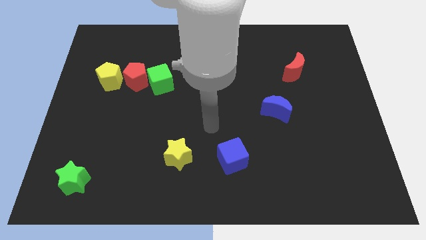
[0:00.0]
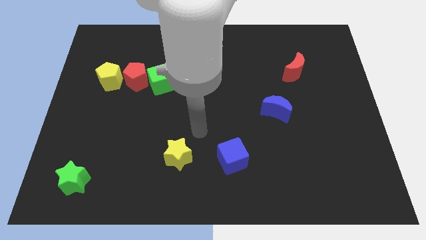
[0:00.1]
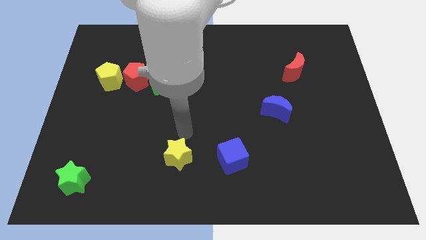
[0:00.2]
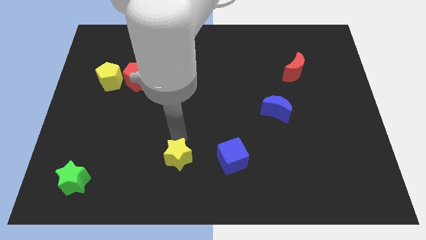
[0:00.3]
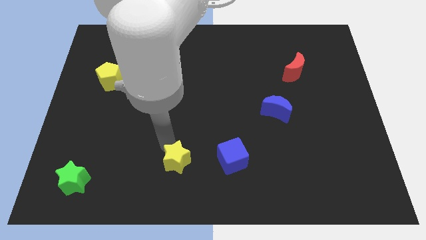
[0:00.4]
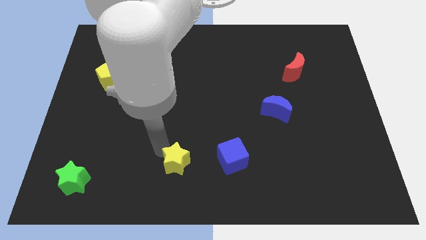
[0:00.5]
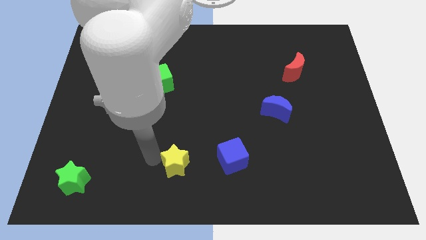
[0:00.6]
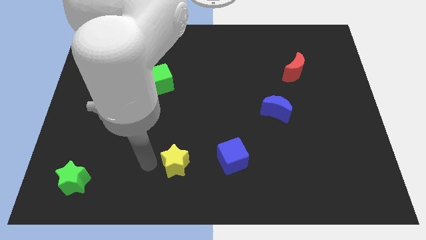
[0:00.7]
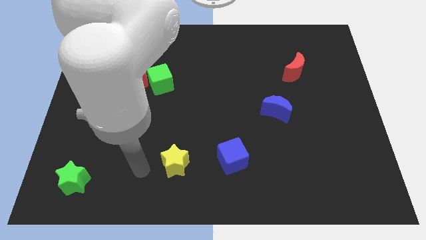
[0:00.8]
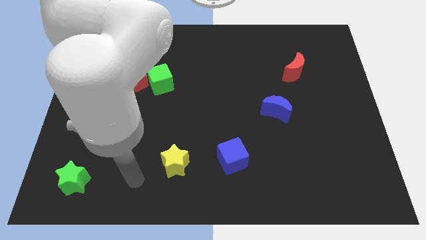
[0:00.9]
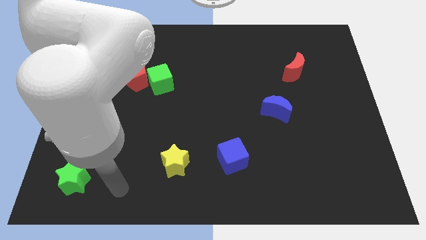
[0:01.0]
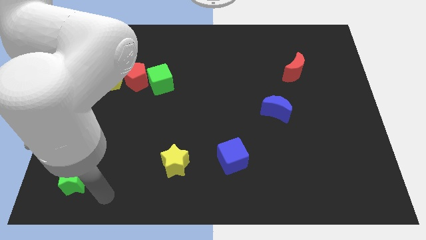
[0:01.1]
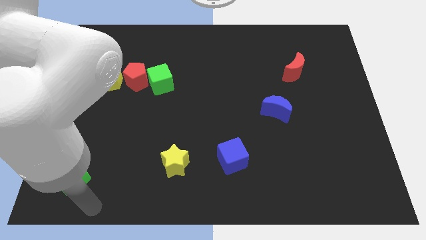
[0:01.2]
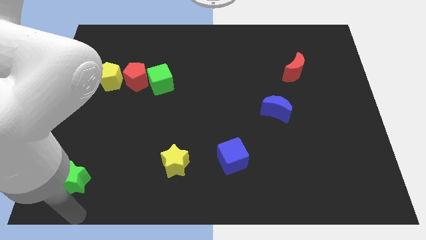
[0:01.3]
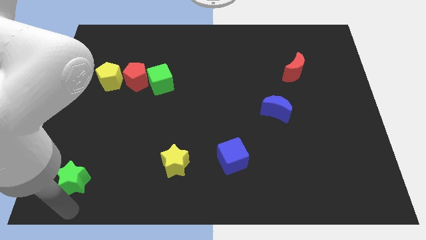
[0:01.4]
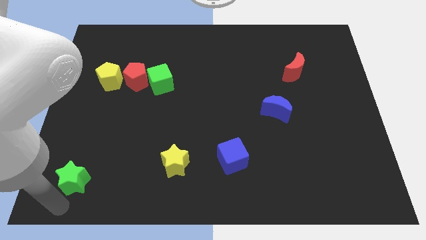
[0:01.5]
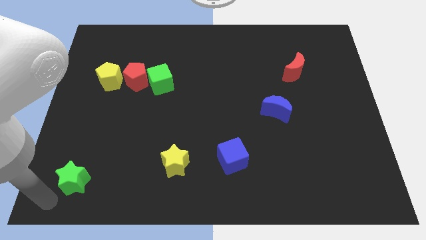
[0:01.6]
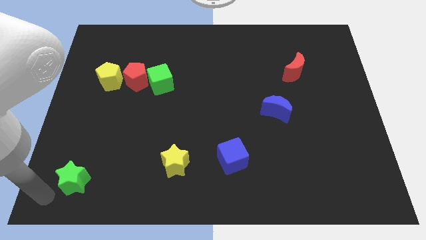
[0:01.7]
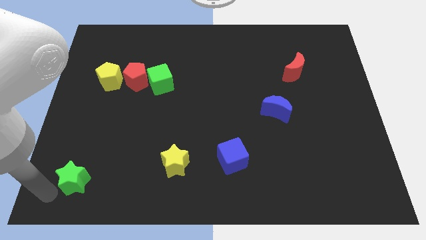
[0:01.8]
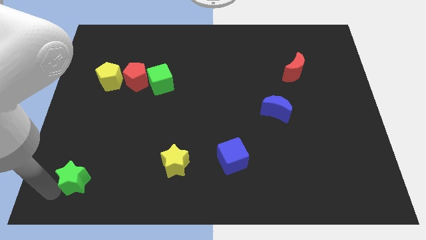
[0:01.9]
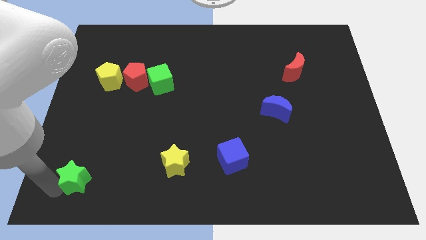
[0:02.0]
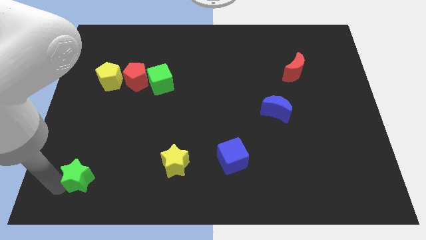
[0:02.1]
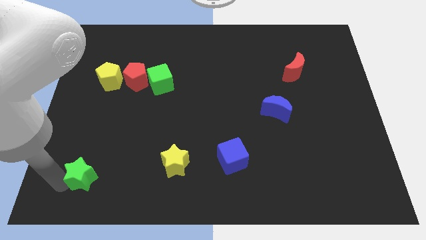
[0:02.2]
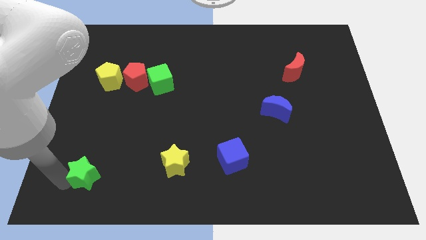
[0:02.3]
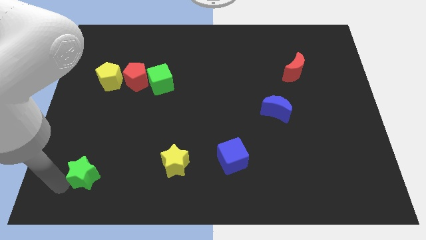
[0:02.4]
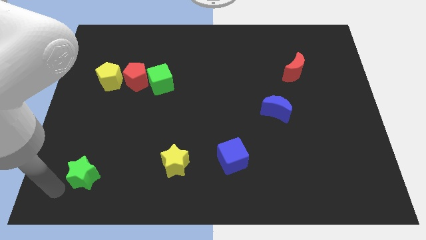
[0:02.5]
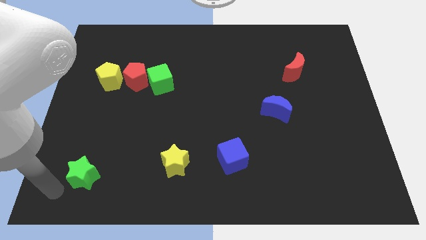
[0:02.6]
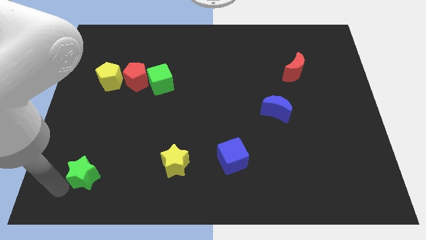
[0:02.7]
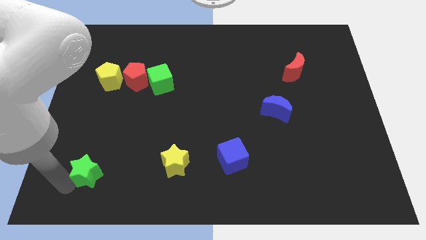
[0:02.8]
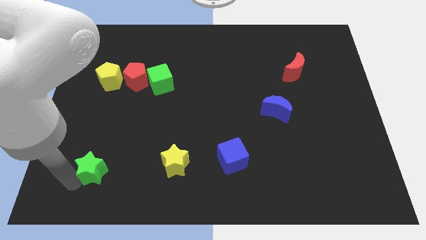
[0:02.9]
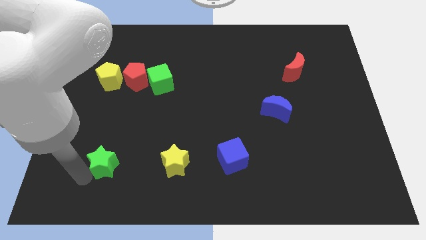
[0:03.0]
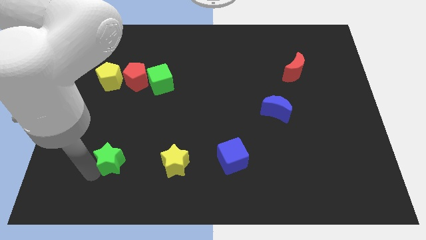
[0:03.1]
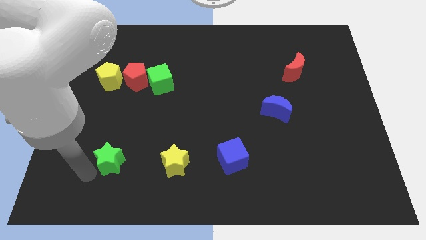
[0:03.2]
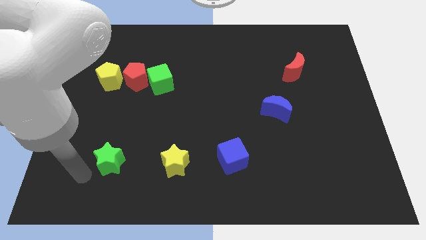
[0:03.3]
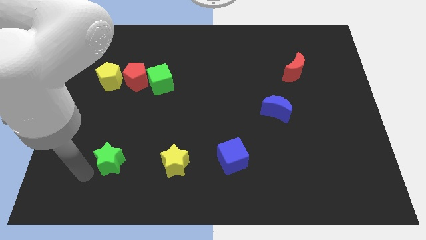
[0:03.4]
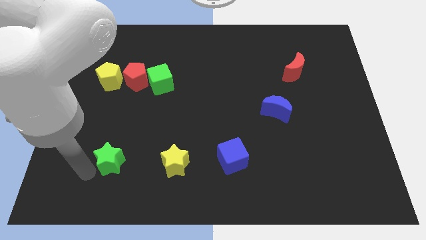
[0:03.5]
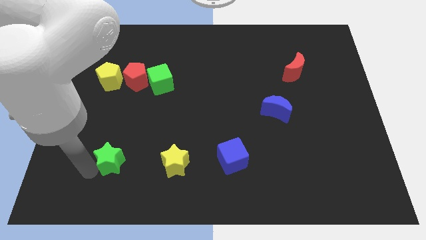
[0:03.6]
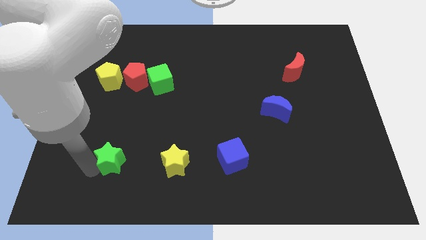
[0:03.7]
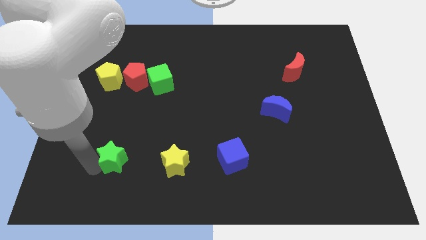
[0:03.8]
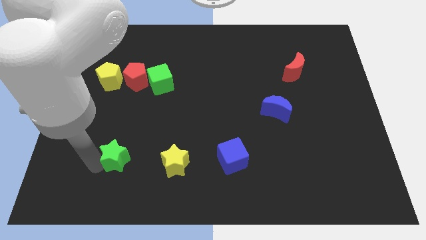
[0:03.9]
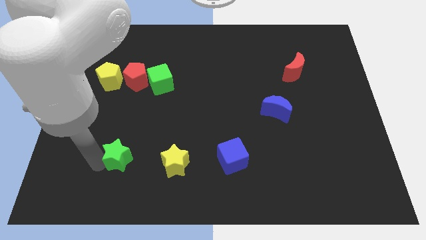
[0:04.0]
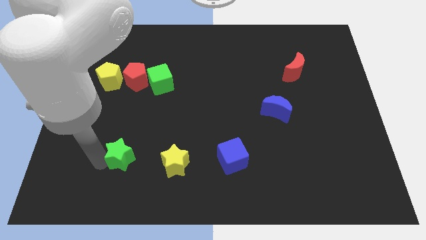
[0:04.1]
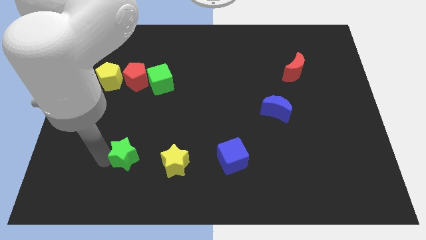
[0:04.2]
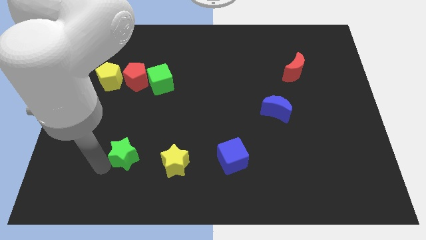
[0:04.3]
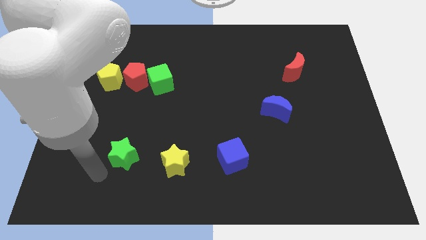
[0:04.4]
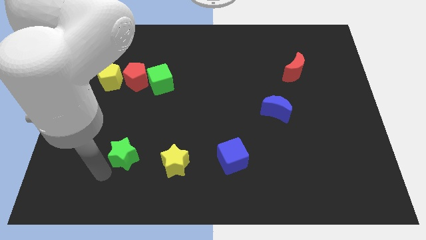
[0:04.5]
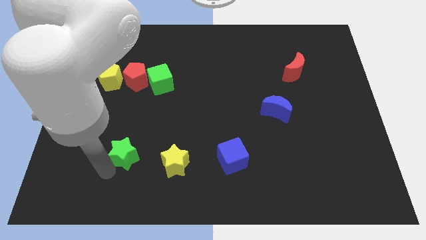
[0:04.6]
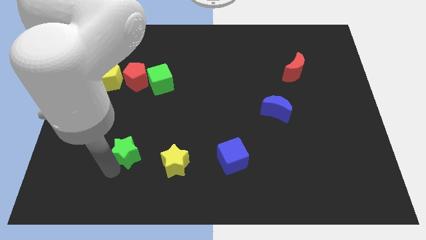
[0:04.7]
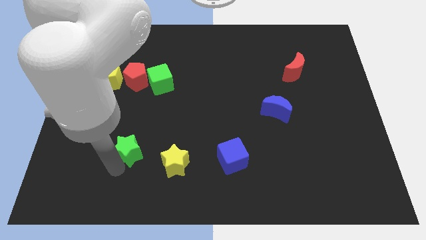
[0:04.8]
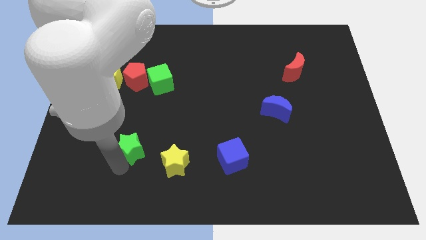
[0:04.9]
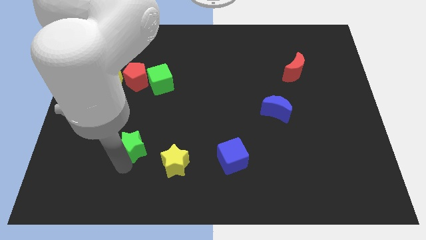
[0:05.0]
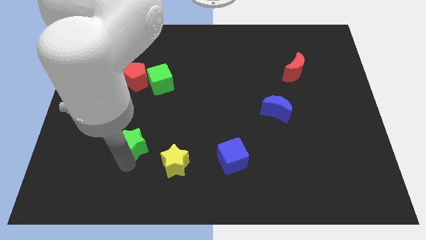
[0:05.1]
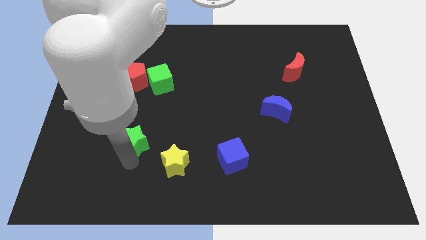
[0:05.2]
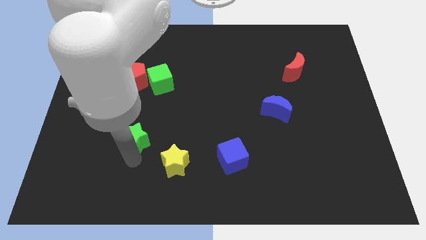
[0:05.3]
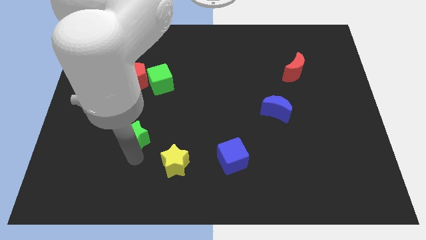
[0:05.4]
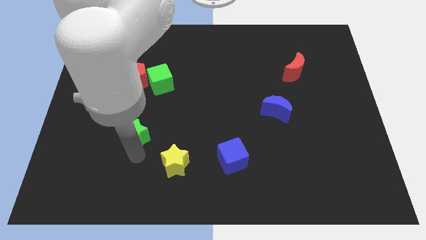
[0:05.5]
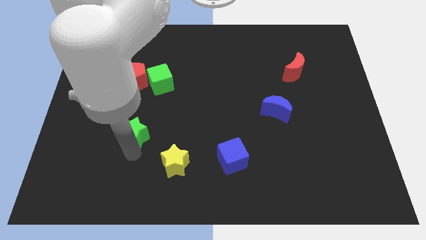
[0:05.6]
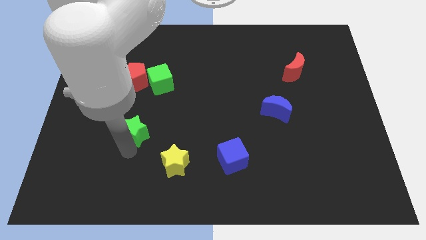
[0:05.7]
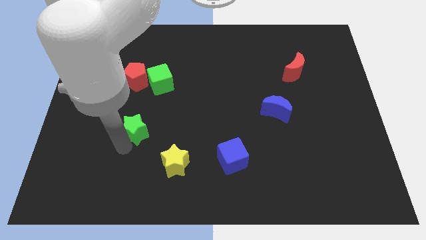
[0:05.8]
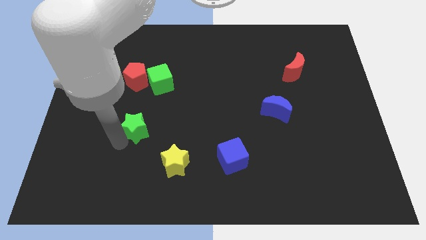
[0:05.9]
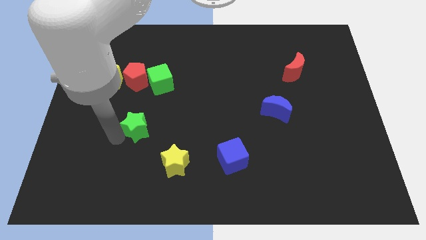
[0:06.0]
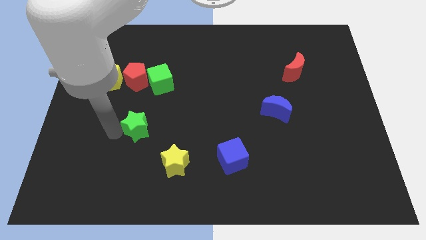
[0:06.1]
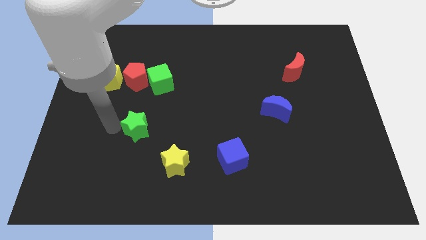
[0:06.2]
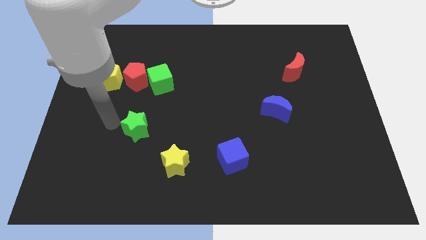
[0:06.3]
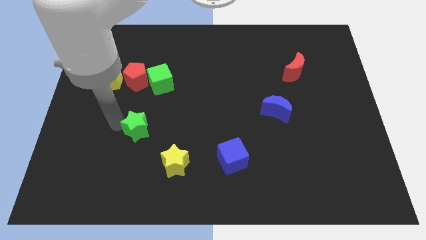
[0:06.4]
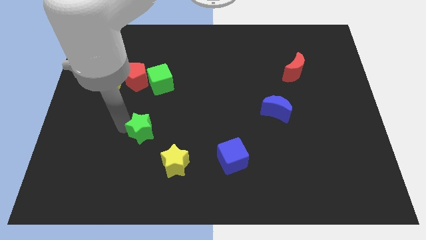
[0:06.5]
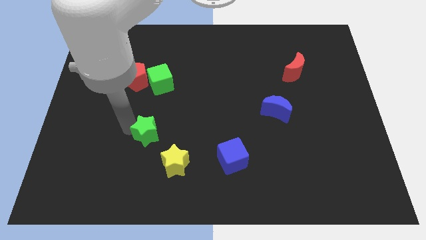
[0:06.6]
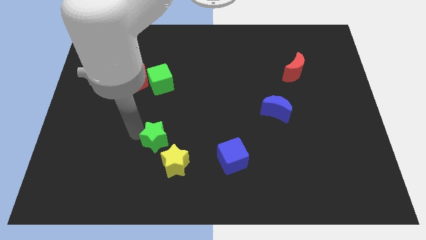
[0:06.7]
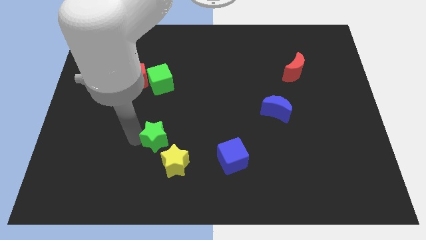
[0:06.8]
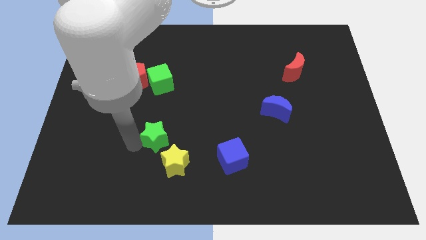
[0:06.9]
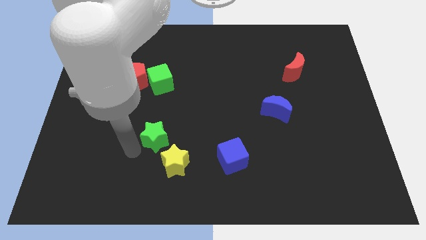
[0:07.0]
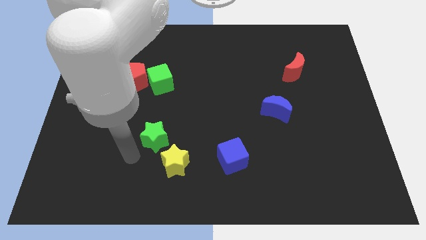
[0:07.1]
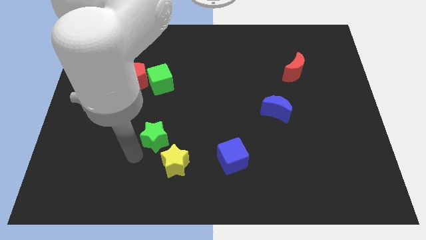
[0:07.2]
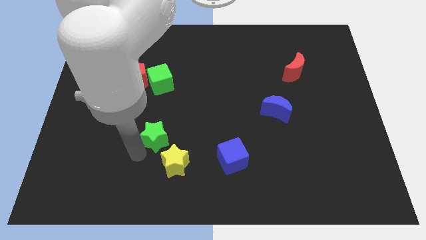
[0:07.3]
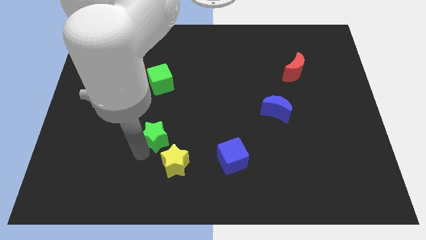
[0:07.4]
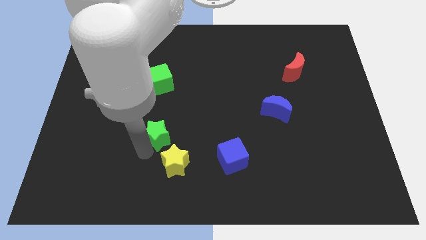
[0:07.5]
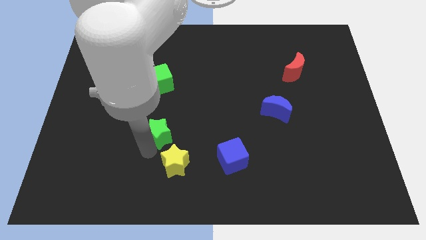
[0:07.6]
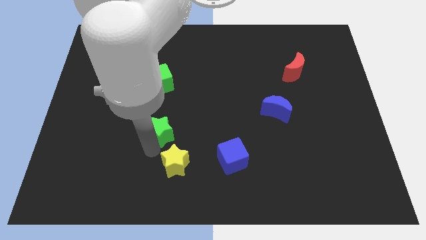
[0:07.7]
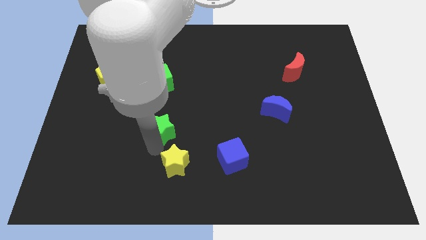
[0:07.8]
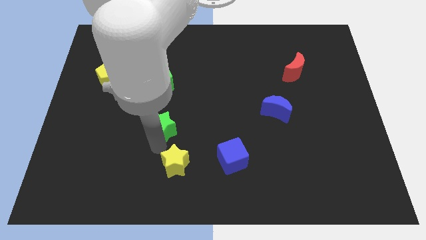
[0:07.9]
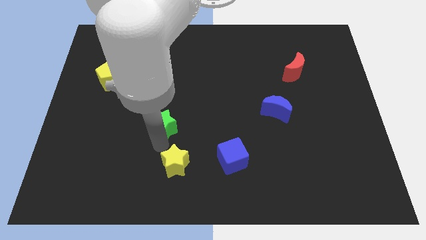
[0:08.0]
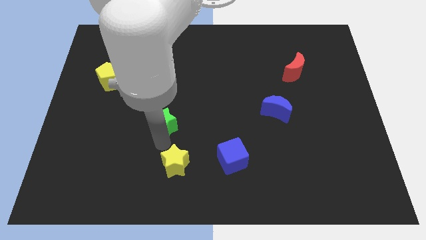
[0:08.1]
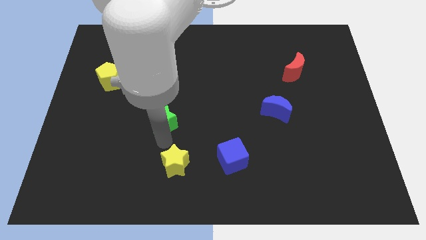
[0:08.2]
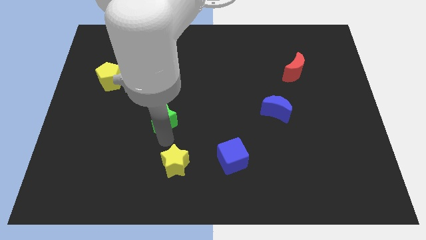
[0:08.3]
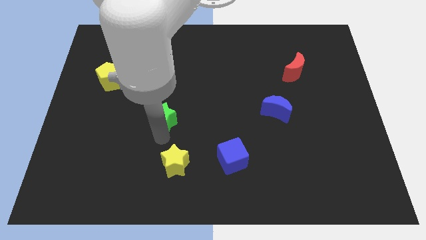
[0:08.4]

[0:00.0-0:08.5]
put the green star to the middle of the board
